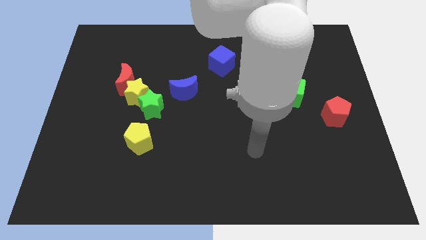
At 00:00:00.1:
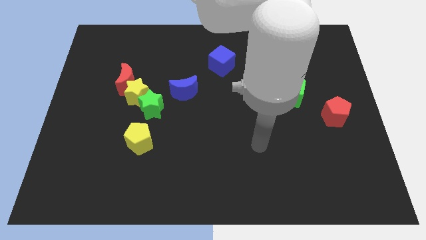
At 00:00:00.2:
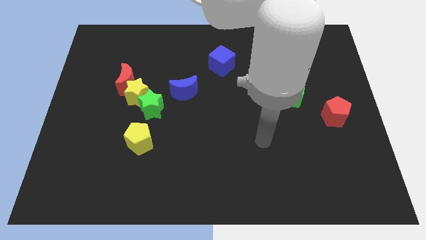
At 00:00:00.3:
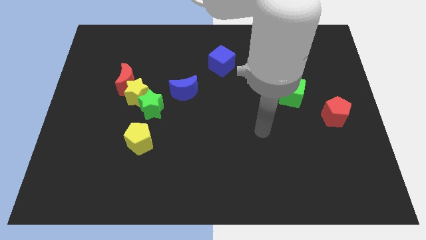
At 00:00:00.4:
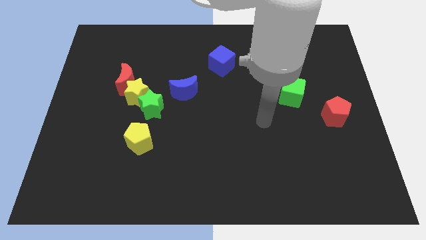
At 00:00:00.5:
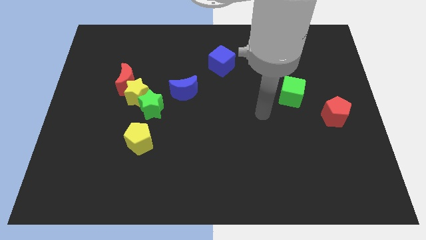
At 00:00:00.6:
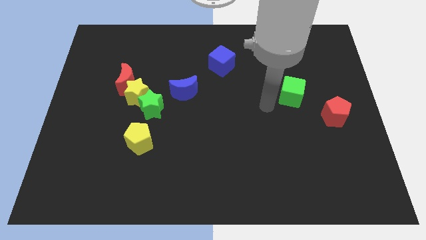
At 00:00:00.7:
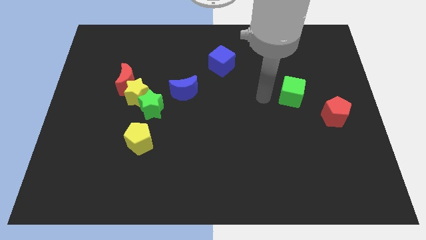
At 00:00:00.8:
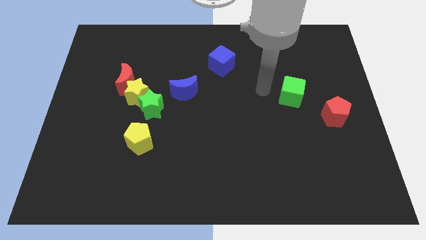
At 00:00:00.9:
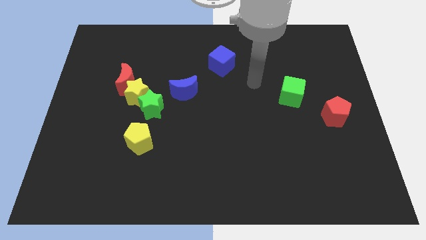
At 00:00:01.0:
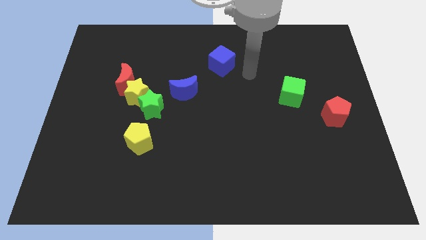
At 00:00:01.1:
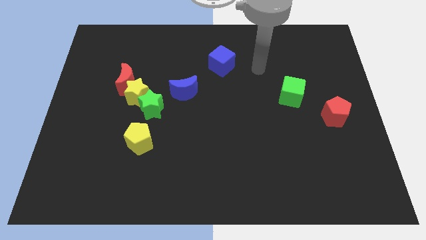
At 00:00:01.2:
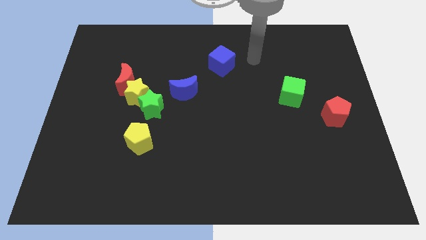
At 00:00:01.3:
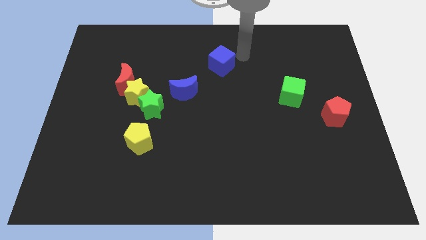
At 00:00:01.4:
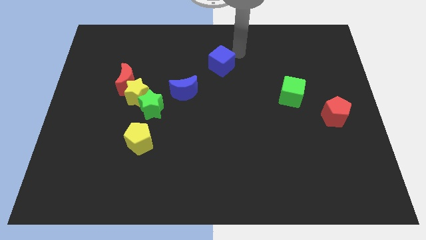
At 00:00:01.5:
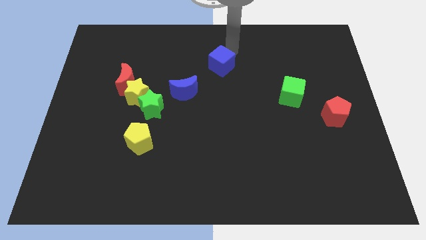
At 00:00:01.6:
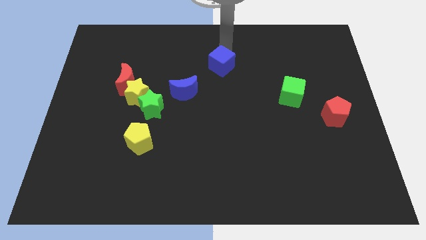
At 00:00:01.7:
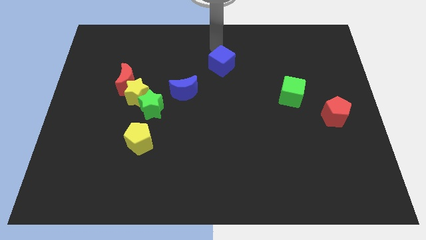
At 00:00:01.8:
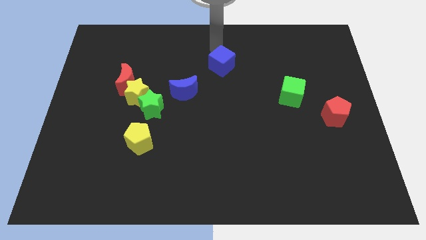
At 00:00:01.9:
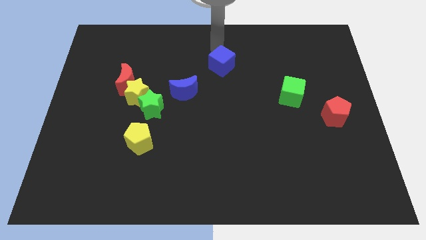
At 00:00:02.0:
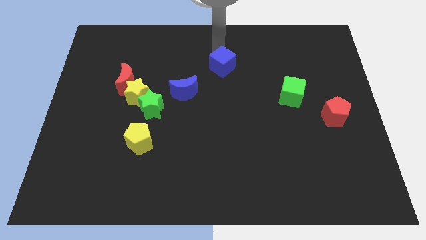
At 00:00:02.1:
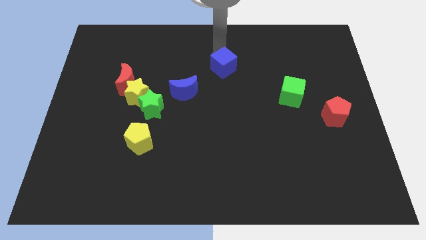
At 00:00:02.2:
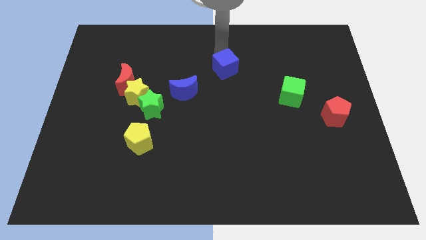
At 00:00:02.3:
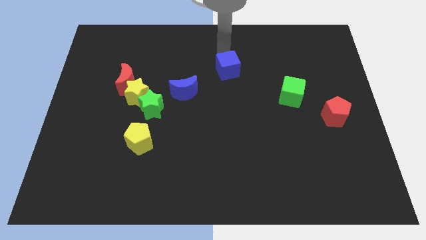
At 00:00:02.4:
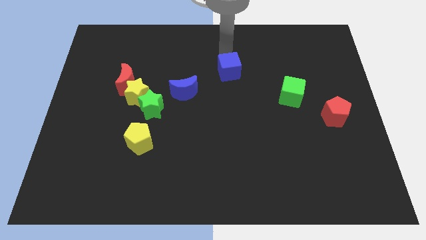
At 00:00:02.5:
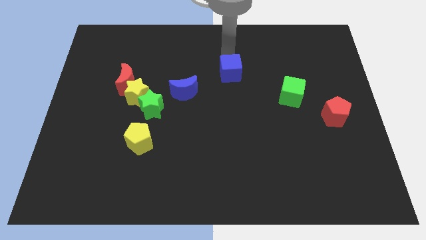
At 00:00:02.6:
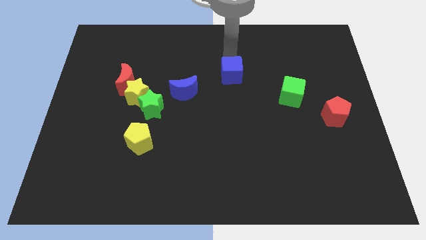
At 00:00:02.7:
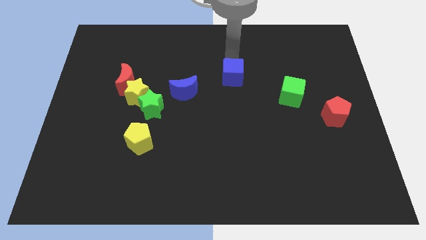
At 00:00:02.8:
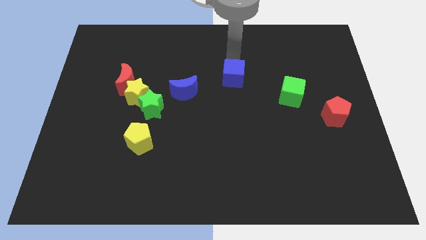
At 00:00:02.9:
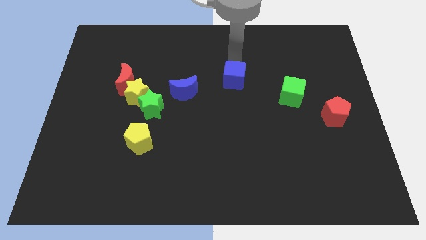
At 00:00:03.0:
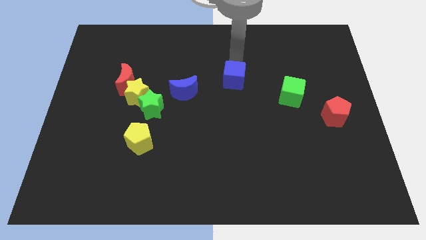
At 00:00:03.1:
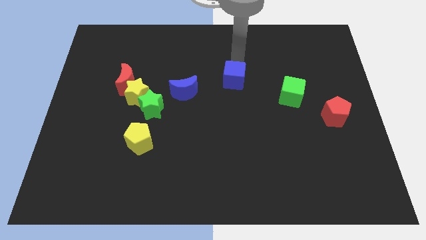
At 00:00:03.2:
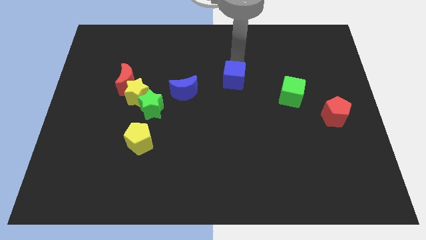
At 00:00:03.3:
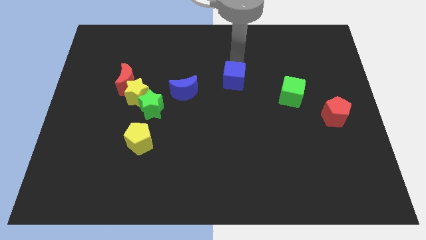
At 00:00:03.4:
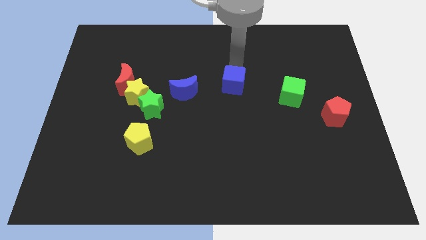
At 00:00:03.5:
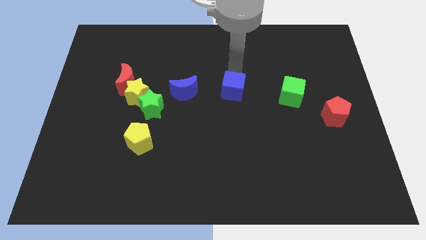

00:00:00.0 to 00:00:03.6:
slide the blue cube downwards a little bit

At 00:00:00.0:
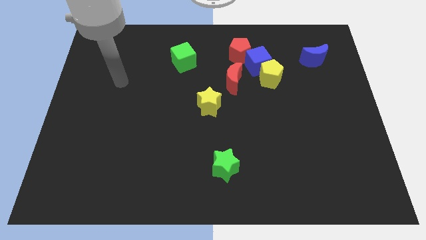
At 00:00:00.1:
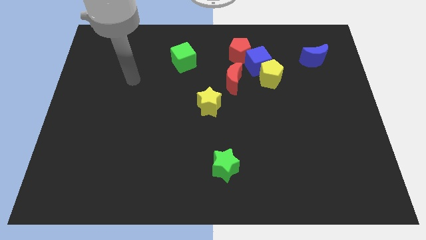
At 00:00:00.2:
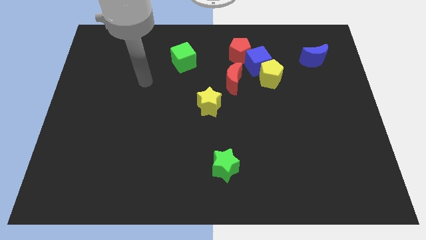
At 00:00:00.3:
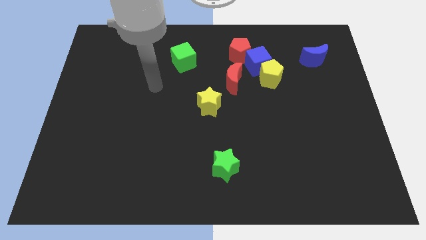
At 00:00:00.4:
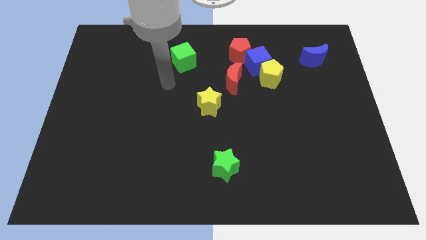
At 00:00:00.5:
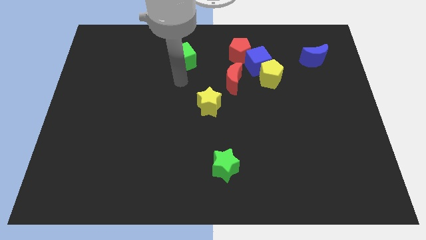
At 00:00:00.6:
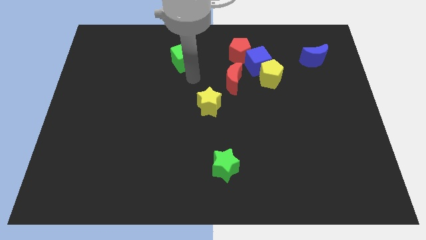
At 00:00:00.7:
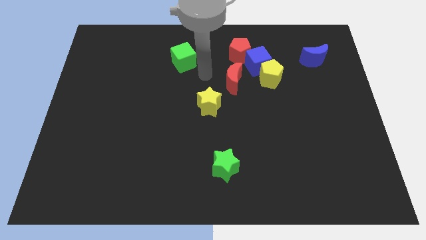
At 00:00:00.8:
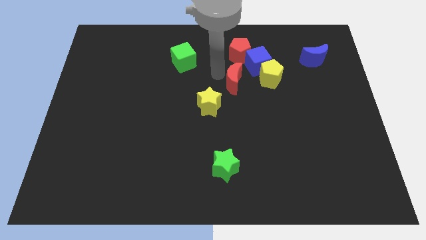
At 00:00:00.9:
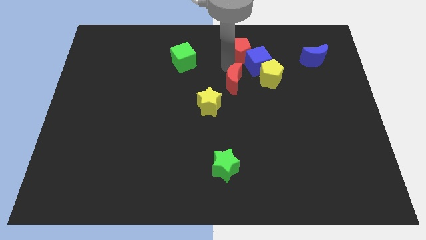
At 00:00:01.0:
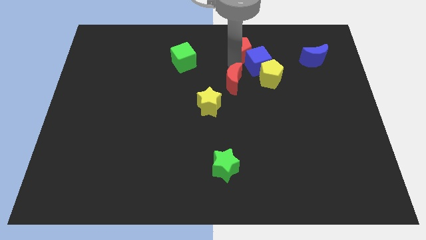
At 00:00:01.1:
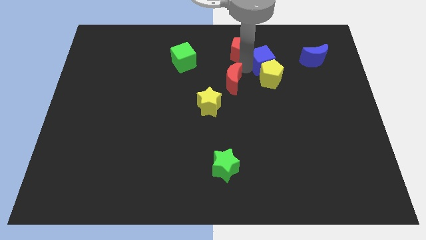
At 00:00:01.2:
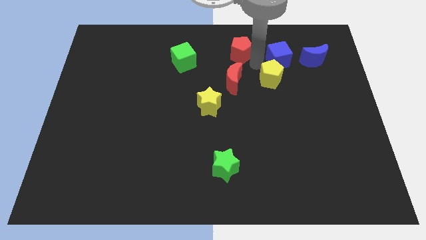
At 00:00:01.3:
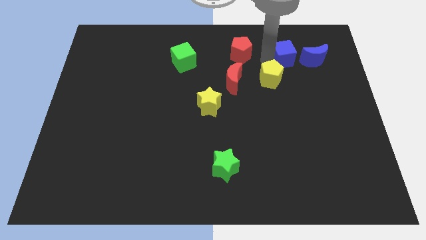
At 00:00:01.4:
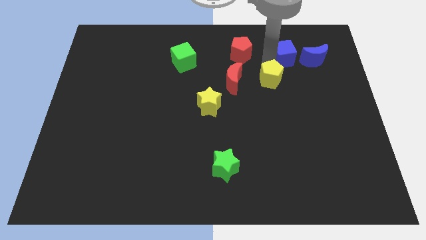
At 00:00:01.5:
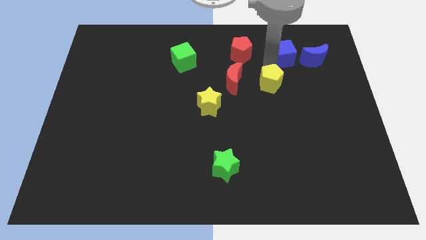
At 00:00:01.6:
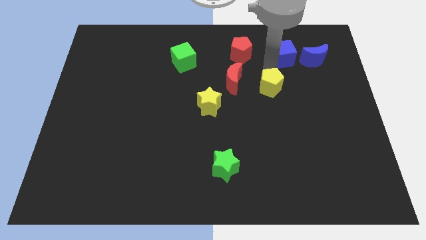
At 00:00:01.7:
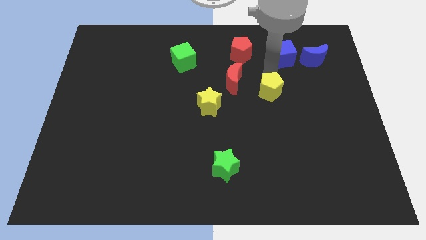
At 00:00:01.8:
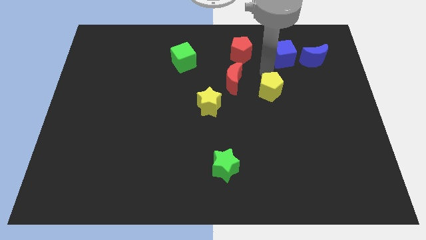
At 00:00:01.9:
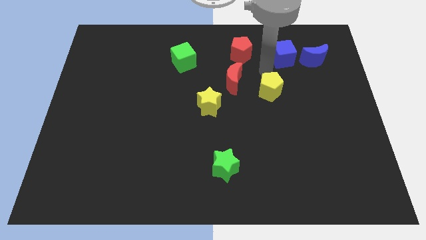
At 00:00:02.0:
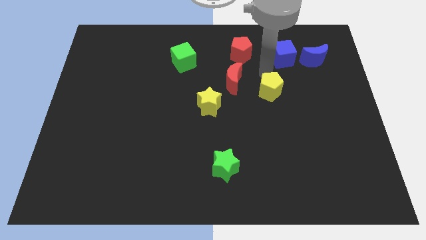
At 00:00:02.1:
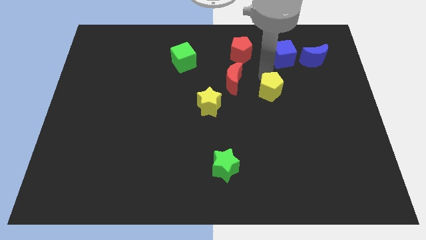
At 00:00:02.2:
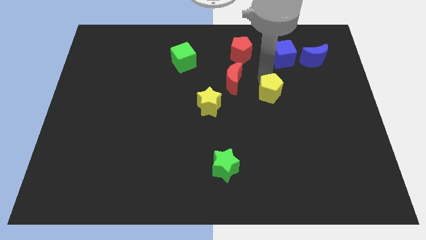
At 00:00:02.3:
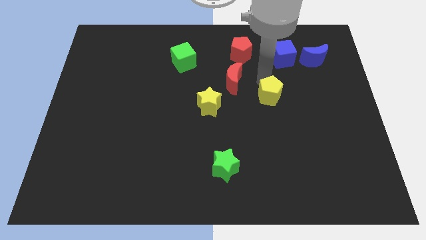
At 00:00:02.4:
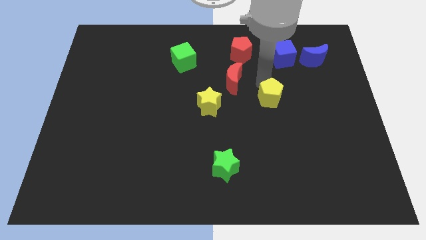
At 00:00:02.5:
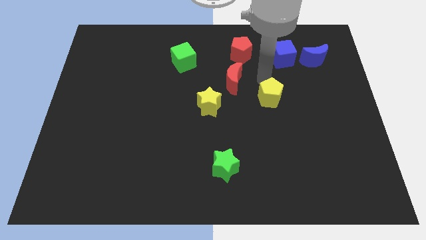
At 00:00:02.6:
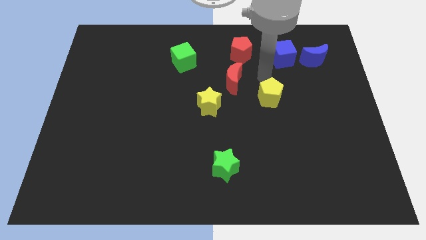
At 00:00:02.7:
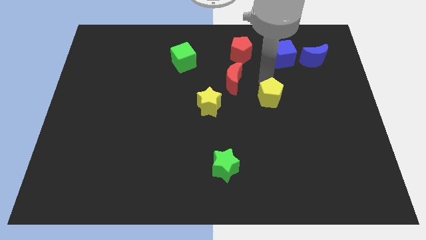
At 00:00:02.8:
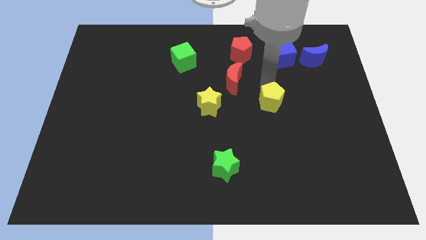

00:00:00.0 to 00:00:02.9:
slide the yellow pentagon slightly downwards

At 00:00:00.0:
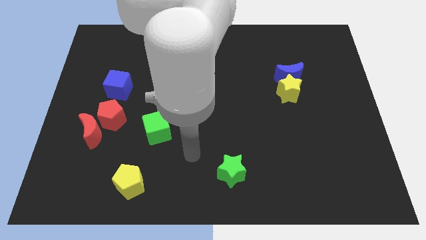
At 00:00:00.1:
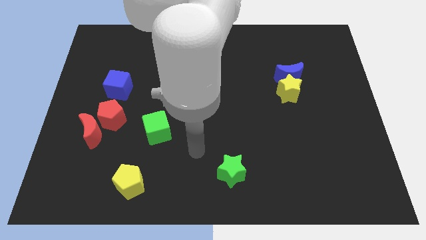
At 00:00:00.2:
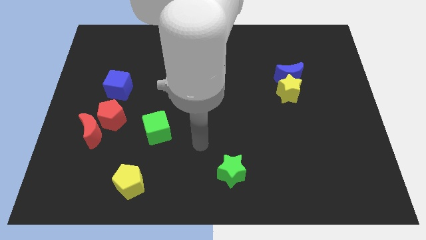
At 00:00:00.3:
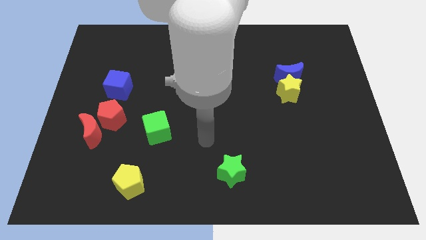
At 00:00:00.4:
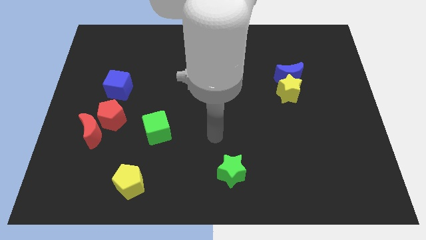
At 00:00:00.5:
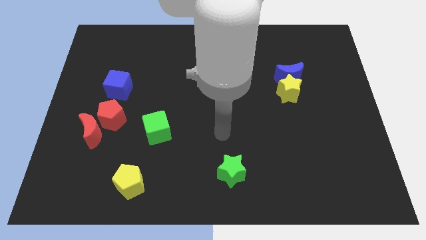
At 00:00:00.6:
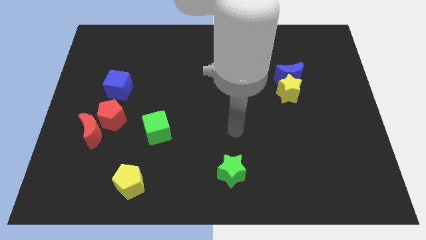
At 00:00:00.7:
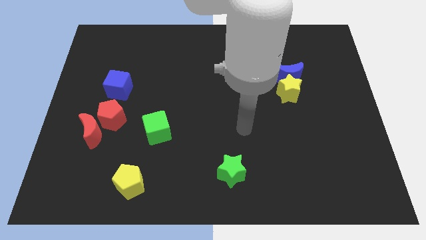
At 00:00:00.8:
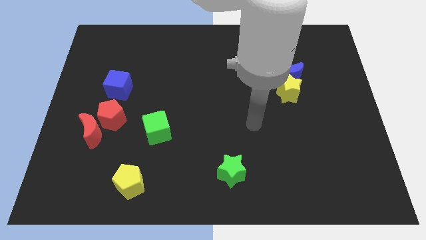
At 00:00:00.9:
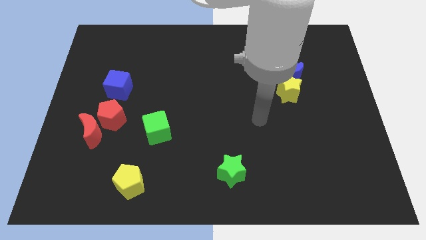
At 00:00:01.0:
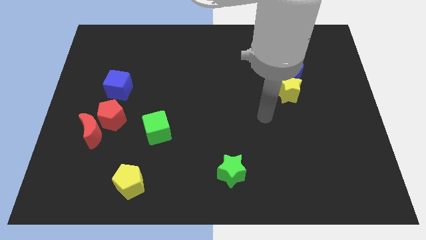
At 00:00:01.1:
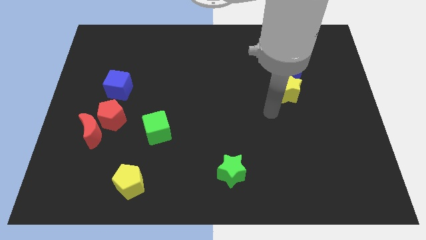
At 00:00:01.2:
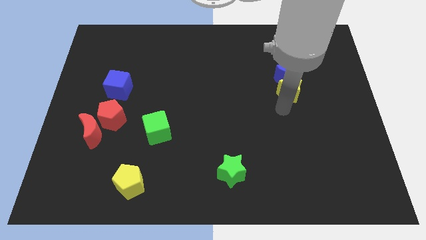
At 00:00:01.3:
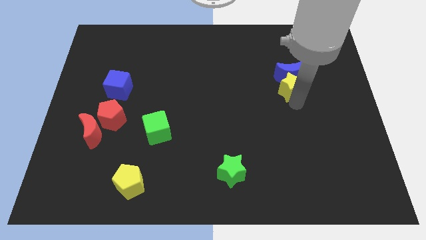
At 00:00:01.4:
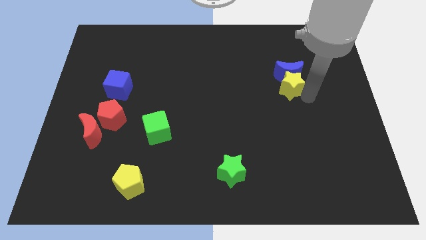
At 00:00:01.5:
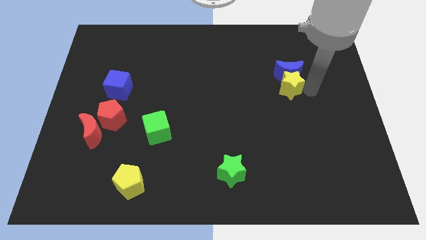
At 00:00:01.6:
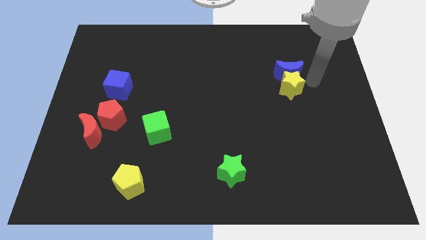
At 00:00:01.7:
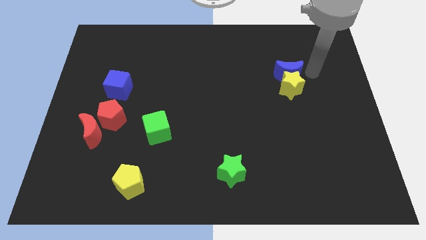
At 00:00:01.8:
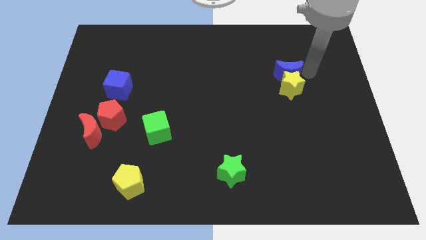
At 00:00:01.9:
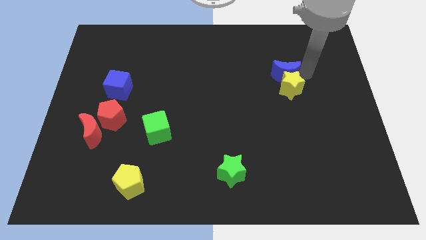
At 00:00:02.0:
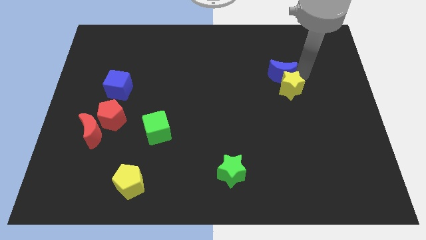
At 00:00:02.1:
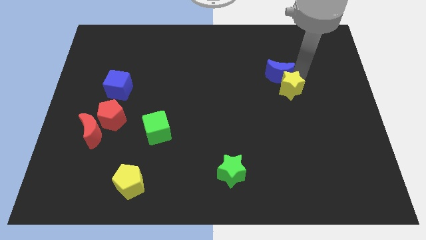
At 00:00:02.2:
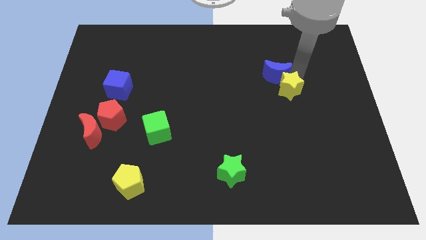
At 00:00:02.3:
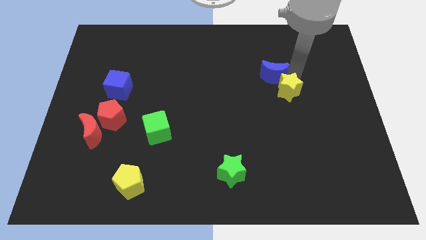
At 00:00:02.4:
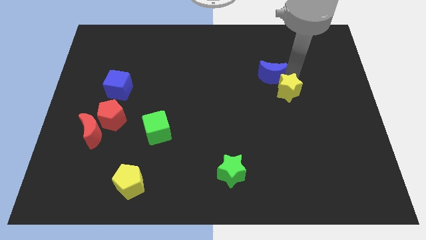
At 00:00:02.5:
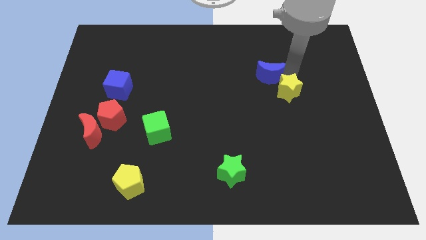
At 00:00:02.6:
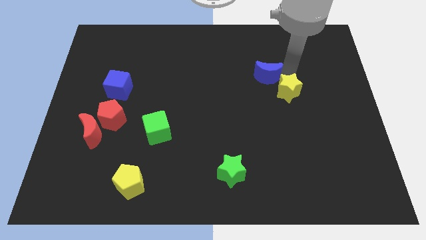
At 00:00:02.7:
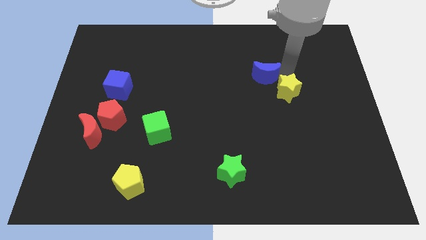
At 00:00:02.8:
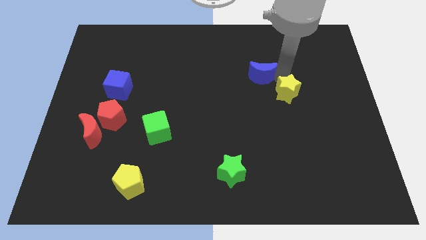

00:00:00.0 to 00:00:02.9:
slightly move the blue moon left
